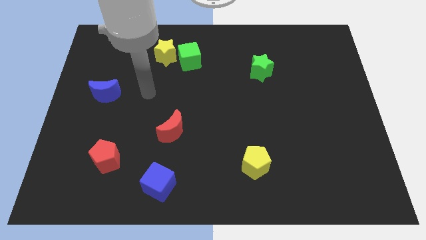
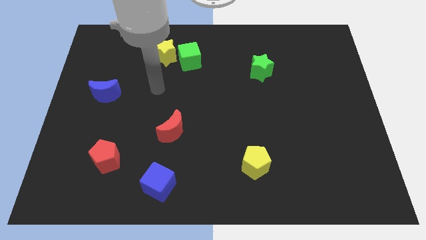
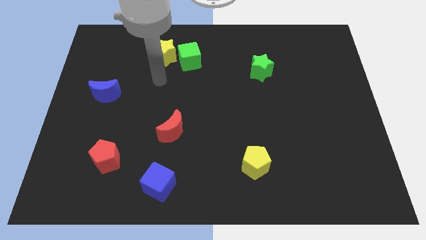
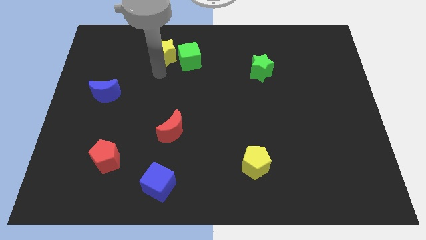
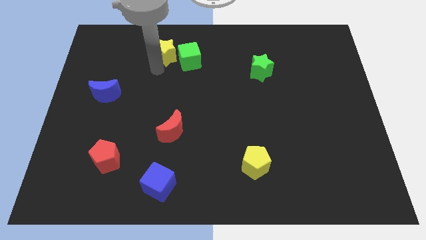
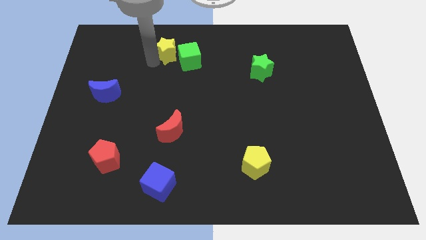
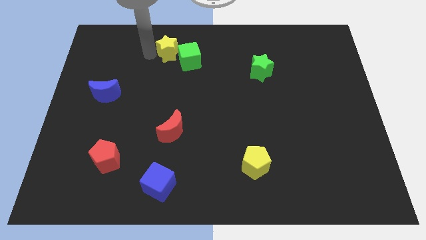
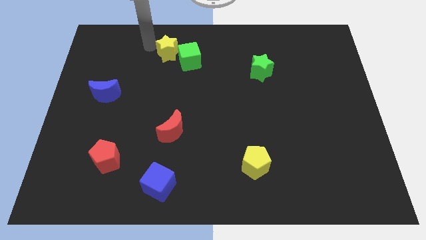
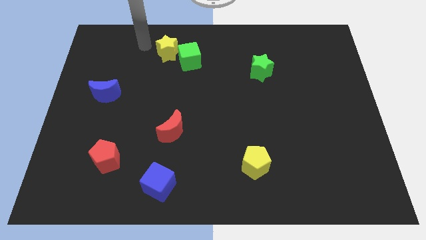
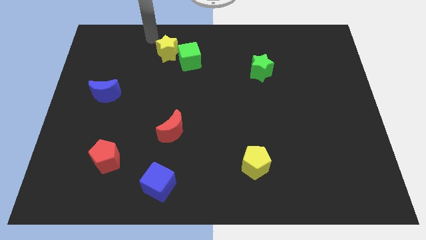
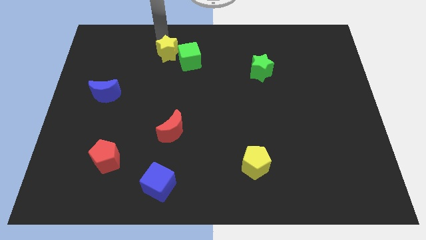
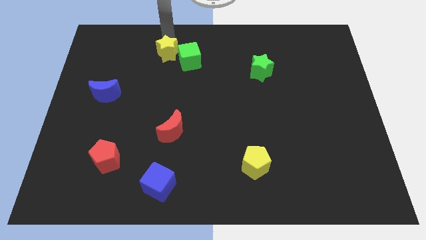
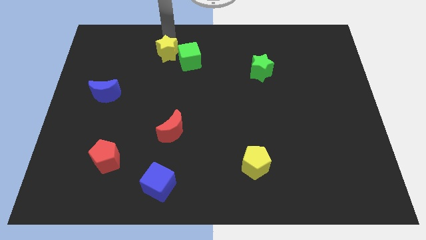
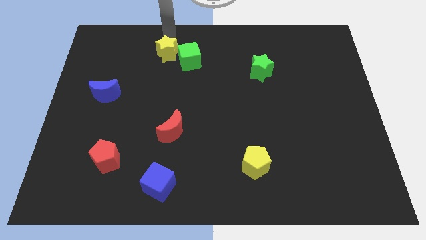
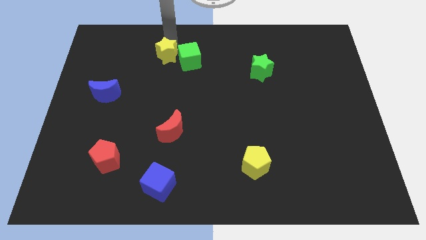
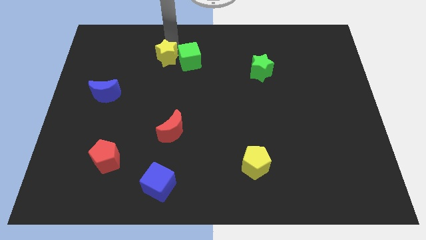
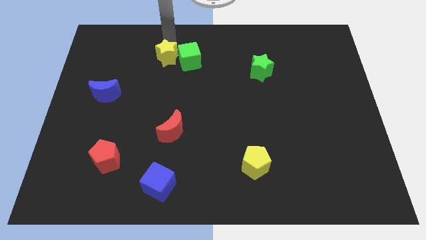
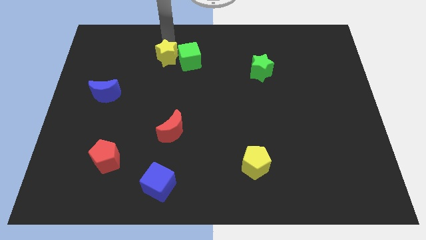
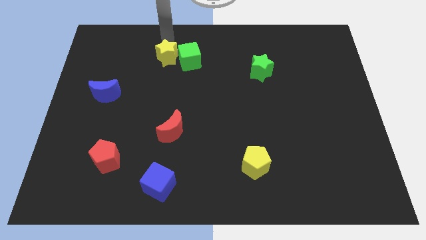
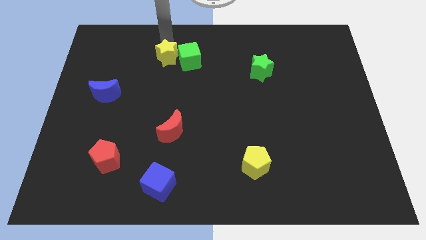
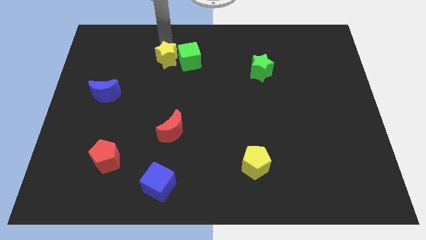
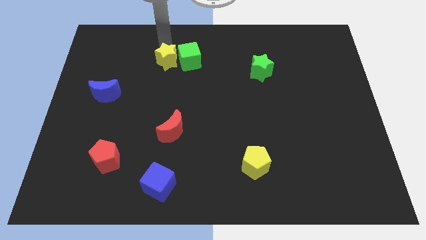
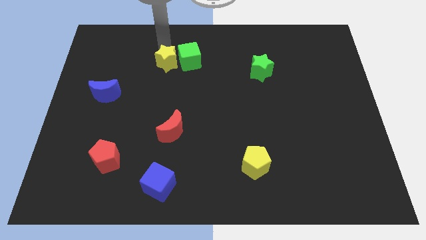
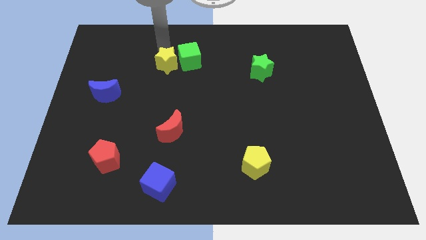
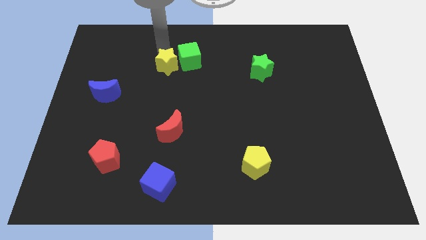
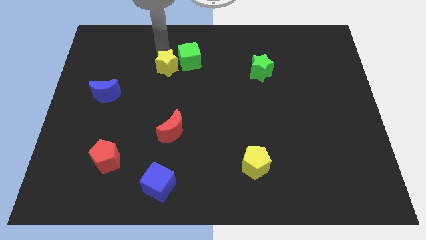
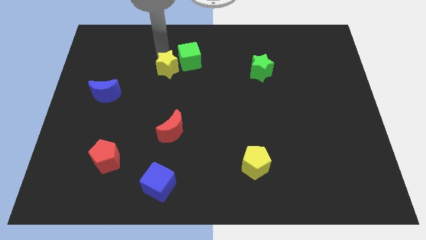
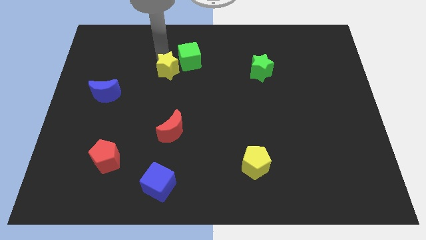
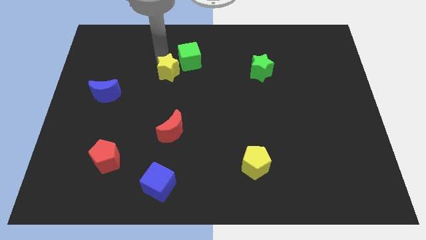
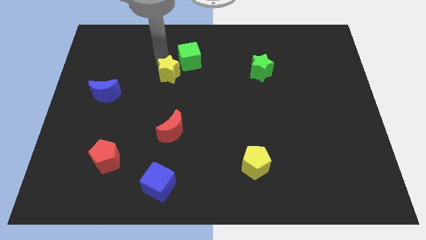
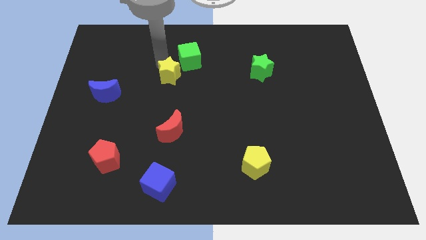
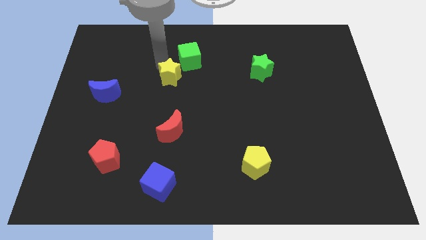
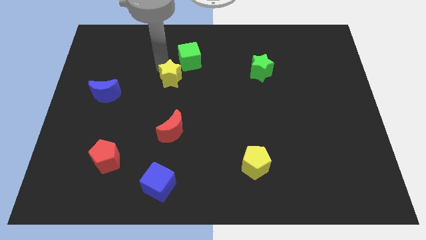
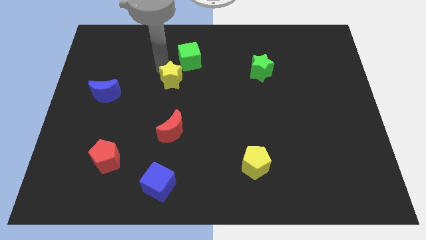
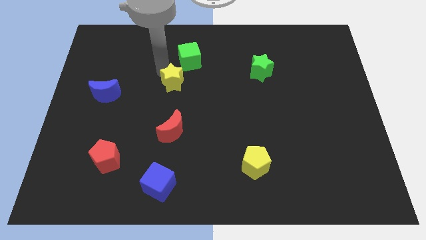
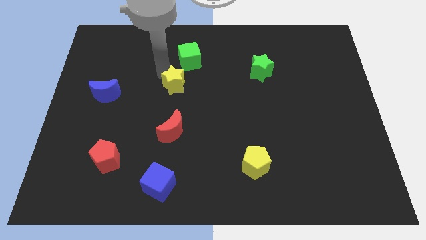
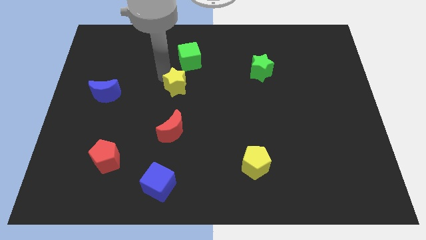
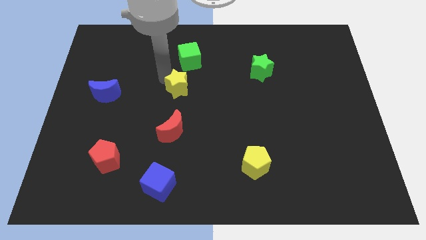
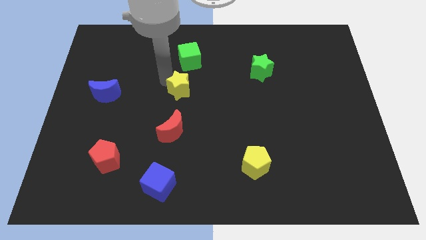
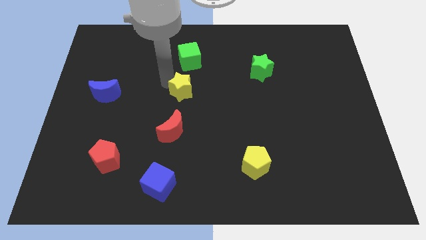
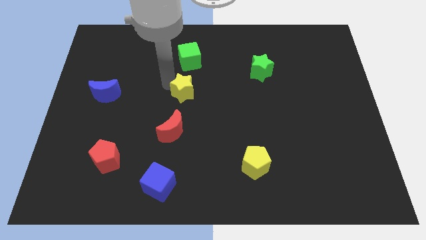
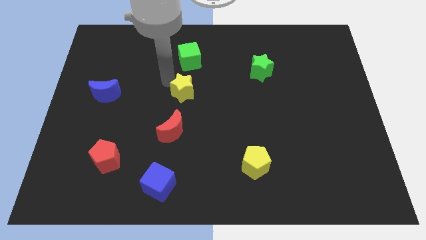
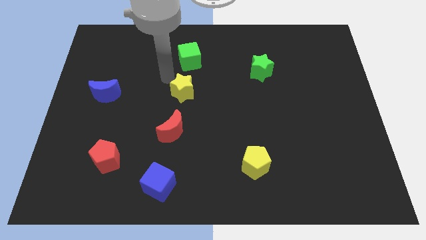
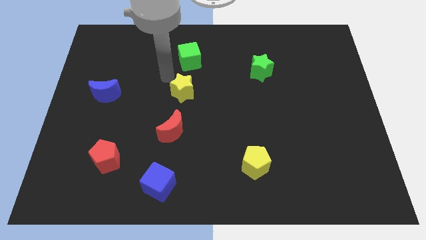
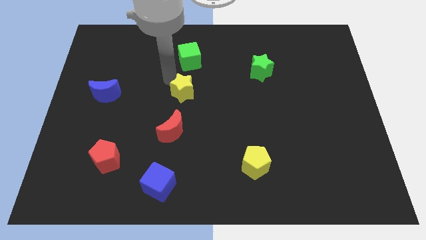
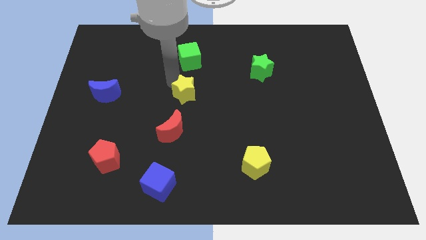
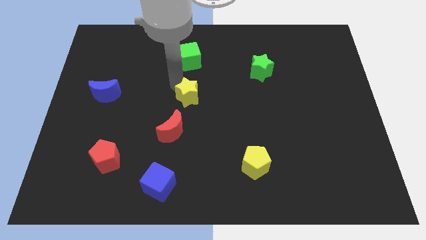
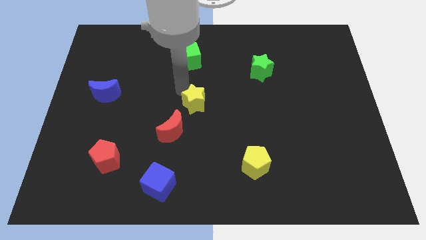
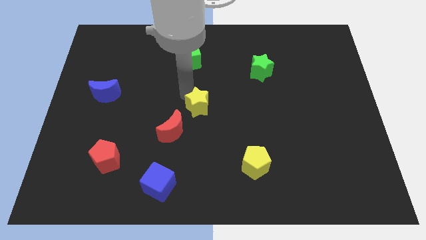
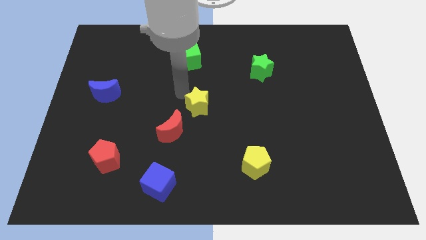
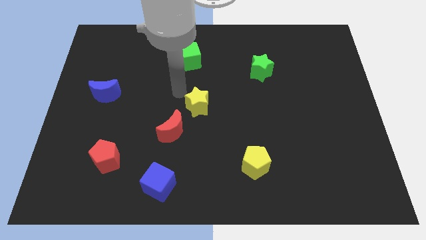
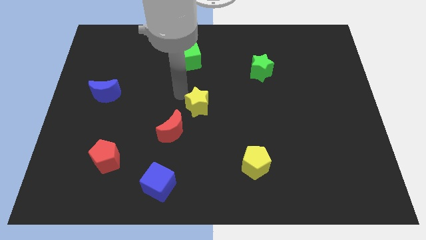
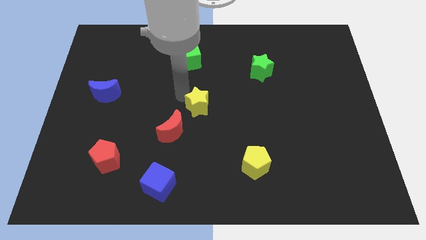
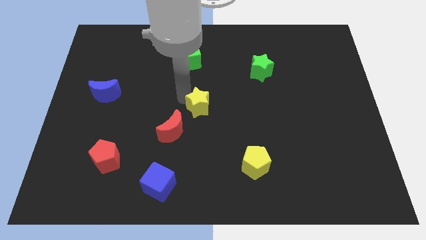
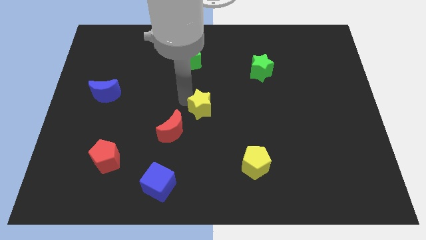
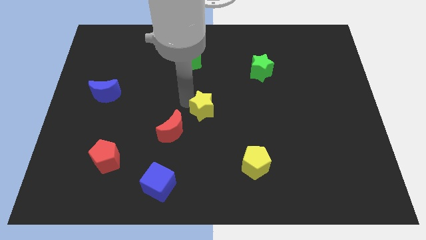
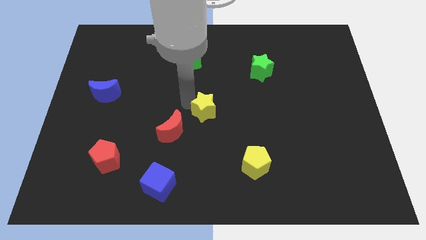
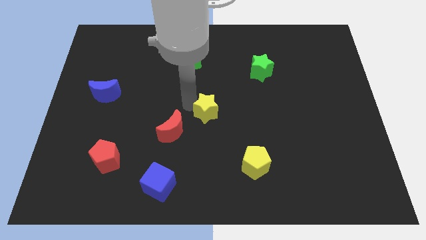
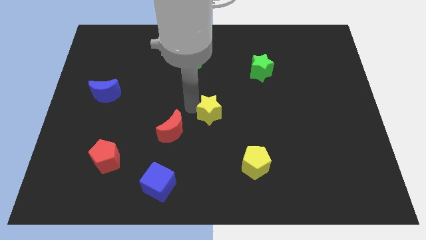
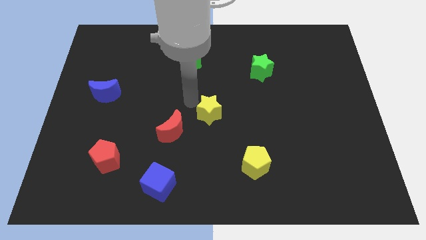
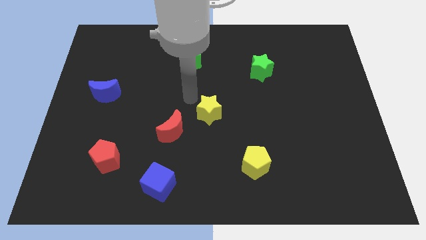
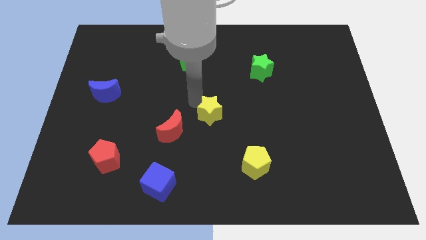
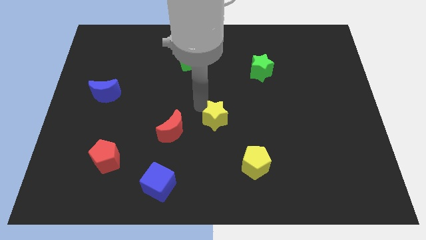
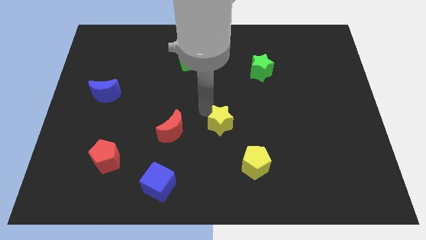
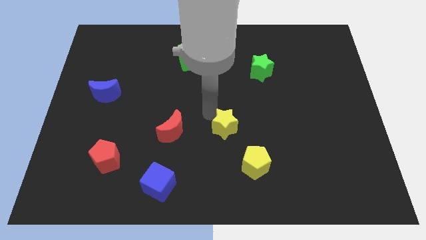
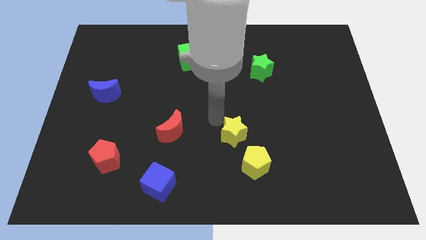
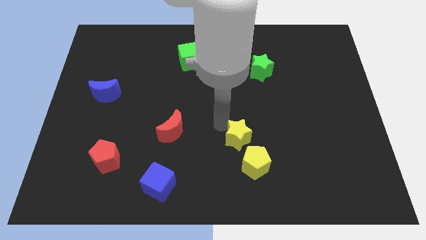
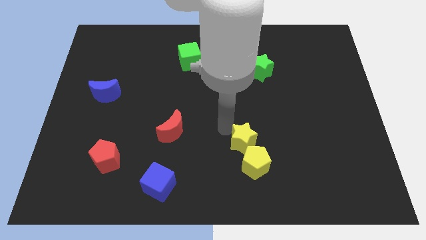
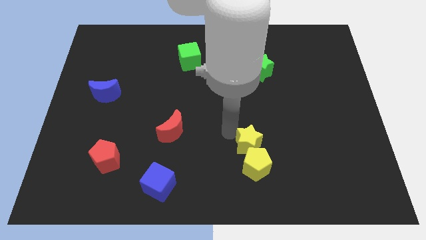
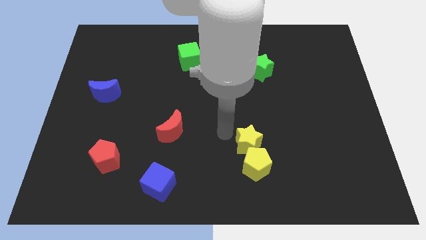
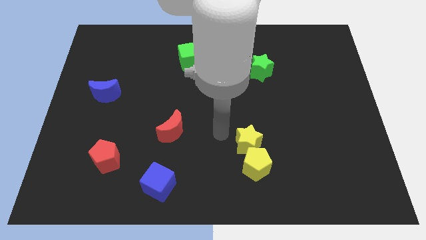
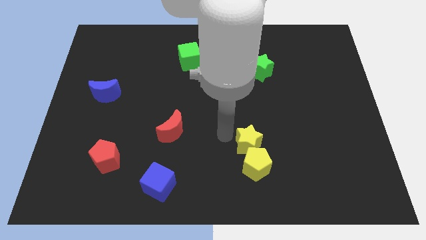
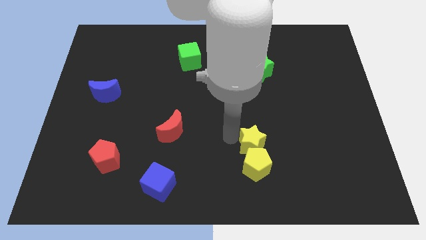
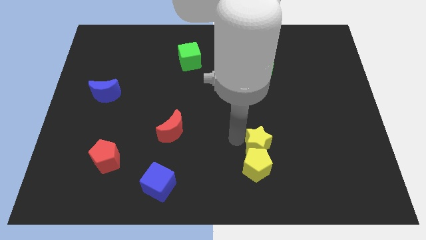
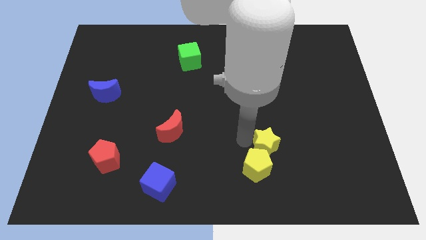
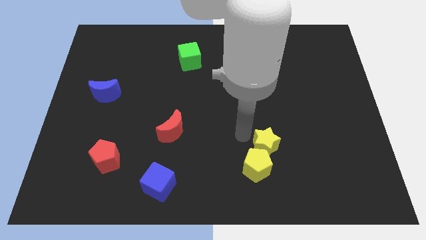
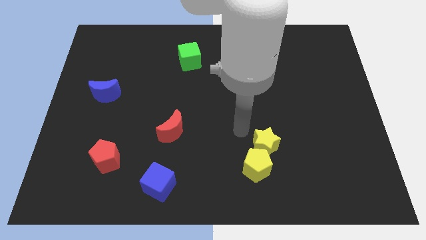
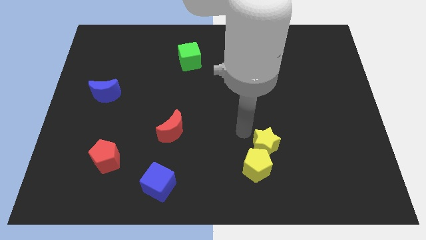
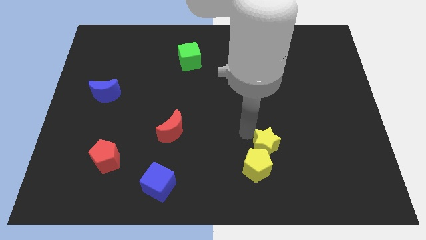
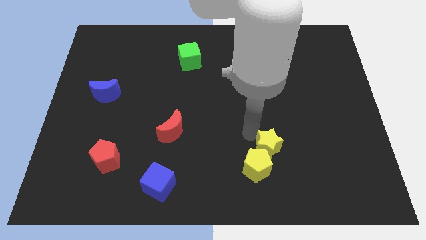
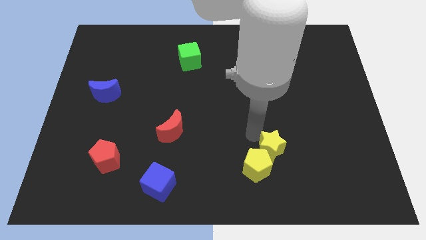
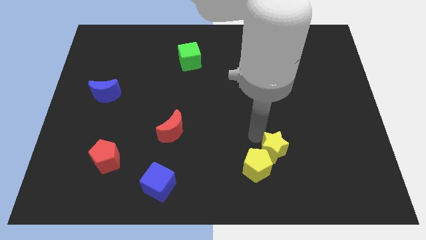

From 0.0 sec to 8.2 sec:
move the yellow star to the right side of the yellow pentagon
